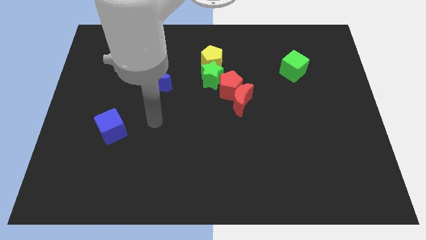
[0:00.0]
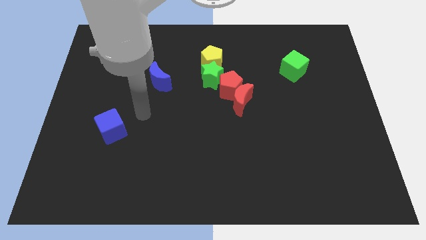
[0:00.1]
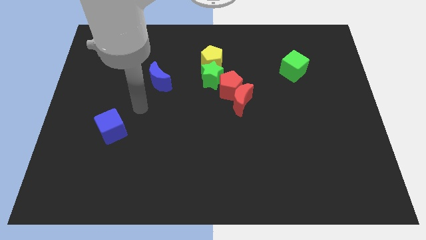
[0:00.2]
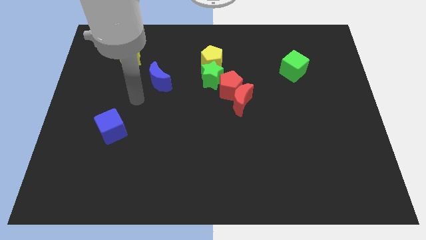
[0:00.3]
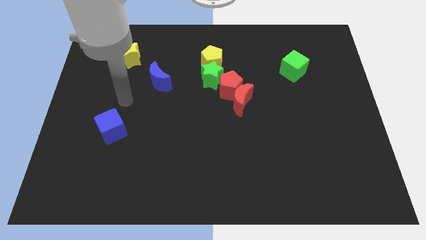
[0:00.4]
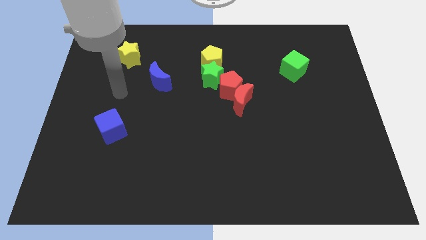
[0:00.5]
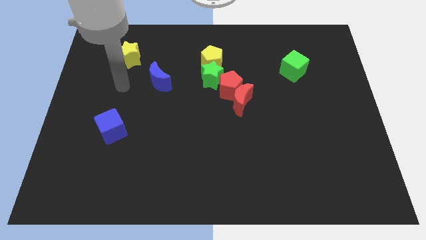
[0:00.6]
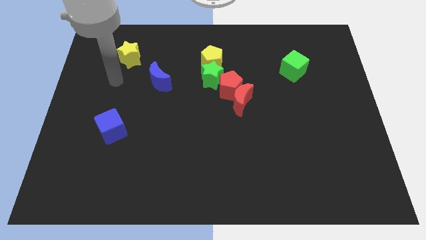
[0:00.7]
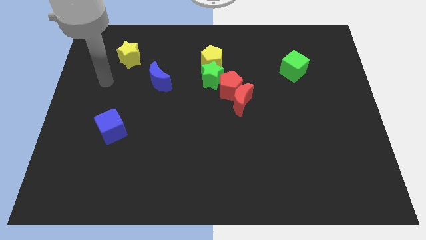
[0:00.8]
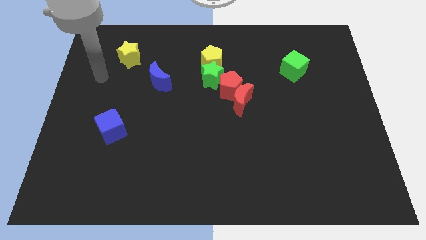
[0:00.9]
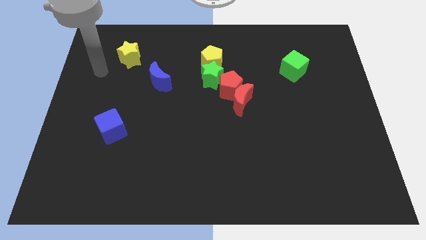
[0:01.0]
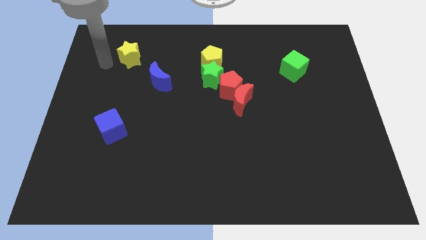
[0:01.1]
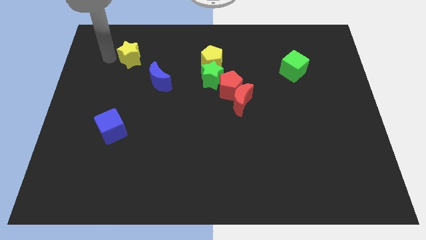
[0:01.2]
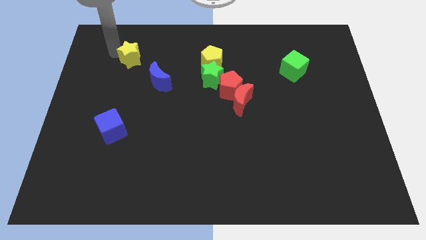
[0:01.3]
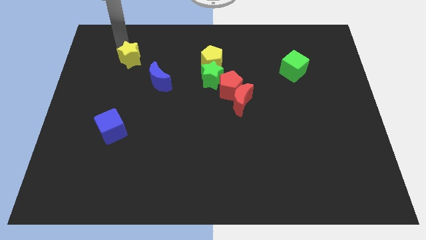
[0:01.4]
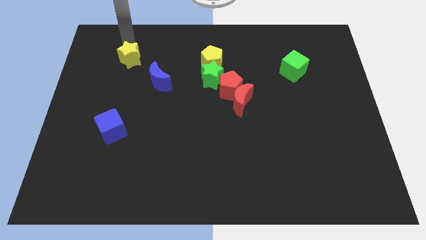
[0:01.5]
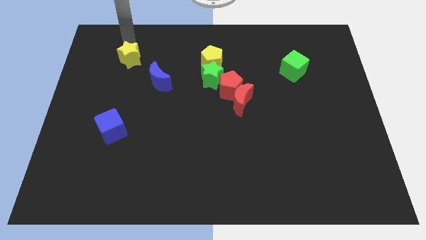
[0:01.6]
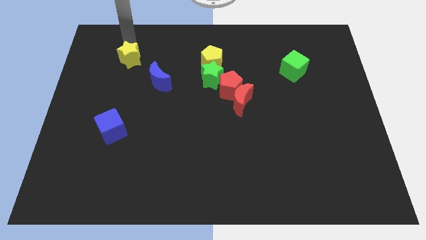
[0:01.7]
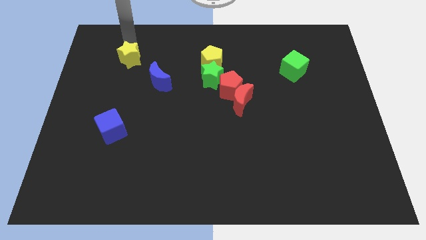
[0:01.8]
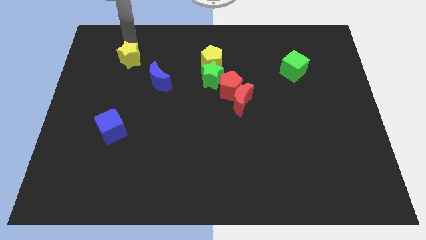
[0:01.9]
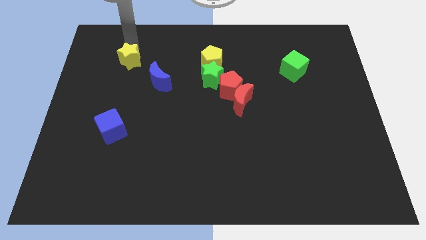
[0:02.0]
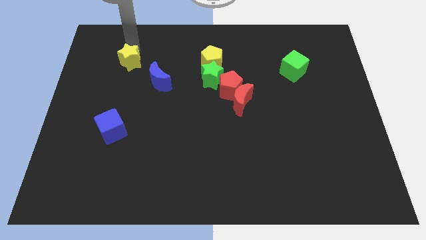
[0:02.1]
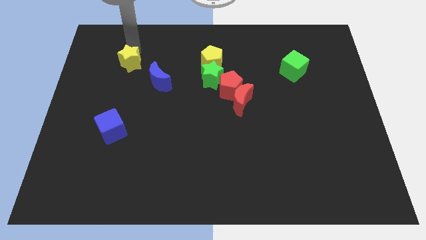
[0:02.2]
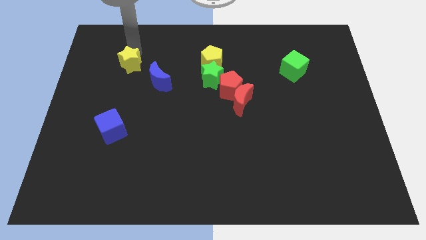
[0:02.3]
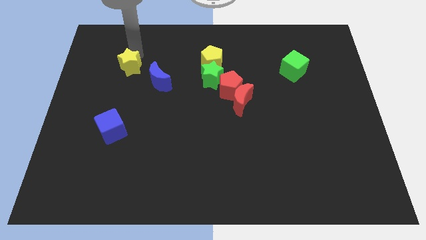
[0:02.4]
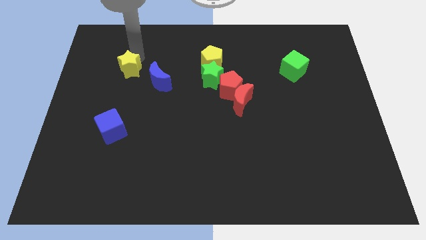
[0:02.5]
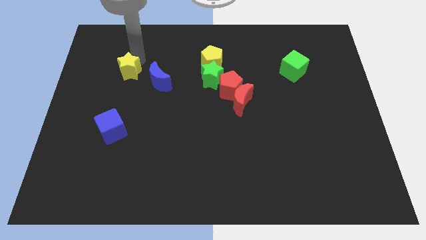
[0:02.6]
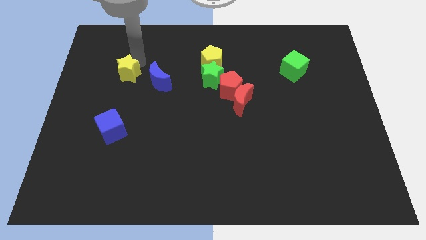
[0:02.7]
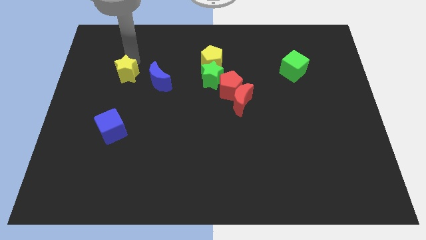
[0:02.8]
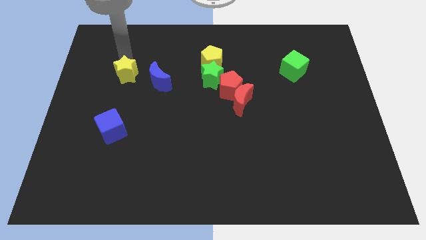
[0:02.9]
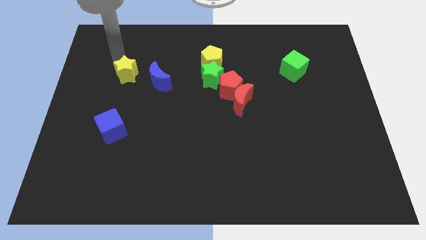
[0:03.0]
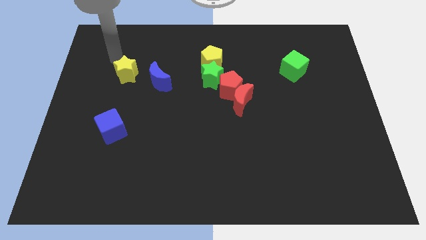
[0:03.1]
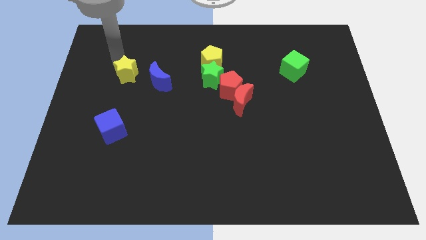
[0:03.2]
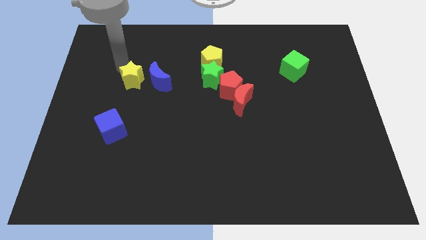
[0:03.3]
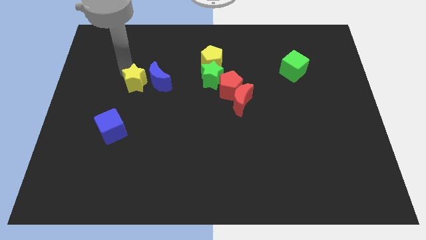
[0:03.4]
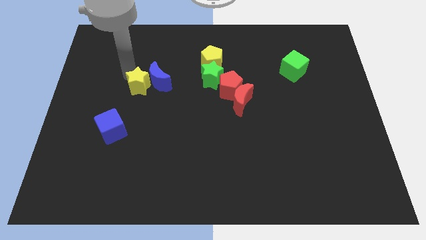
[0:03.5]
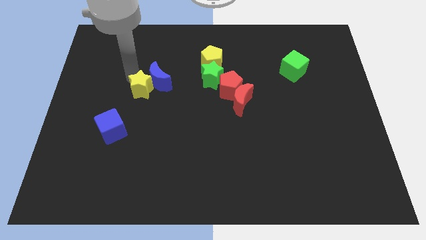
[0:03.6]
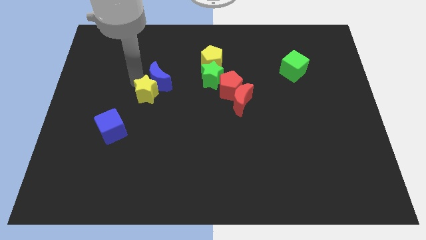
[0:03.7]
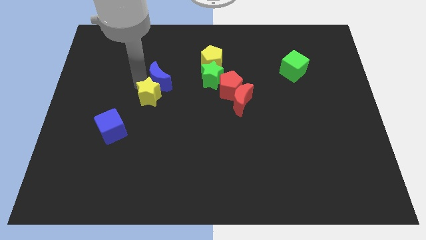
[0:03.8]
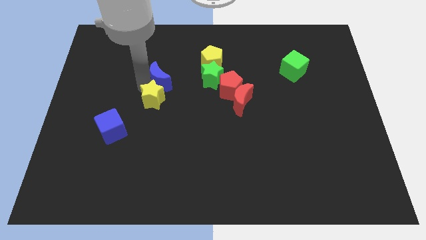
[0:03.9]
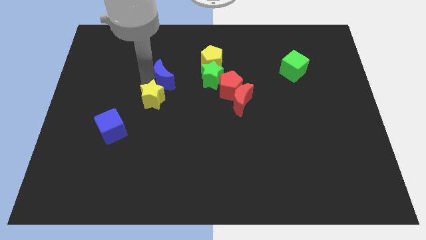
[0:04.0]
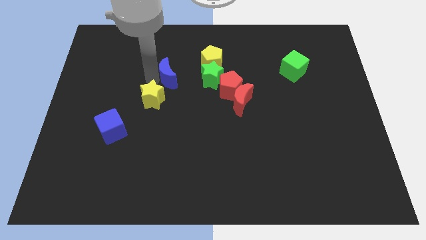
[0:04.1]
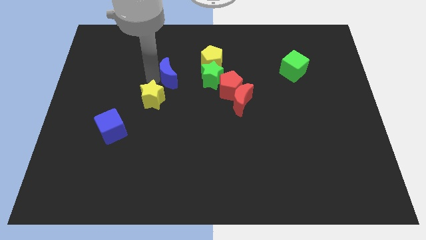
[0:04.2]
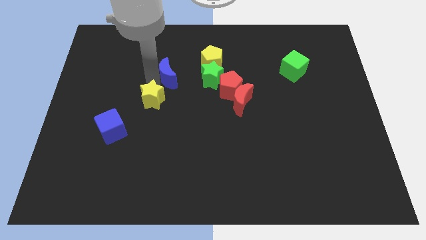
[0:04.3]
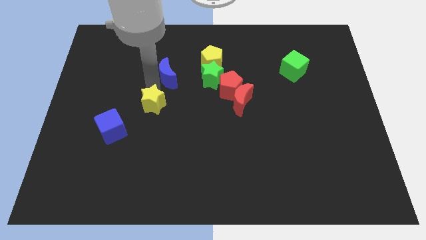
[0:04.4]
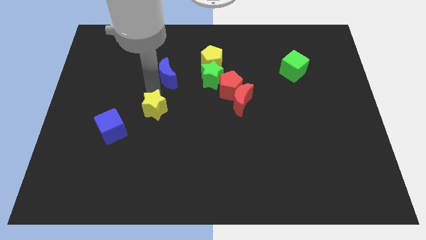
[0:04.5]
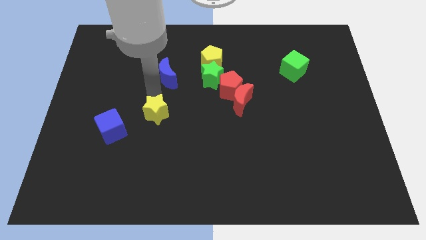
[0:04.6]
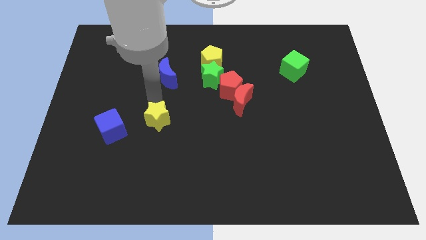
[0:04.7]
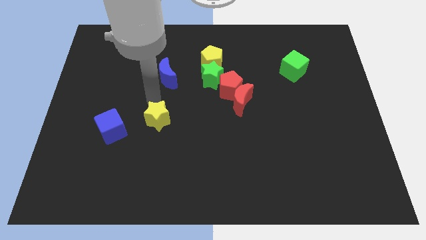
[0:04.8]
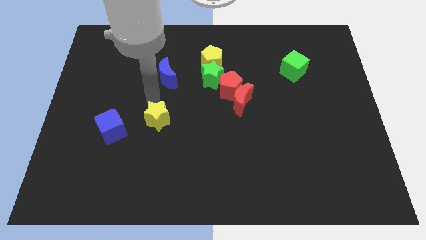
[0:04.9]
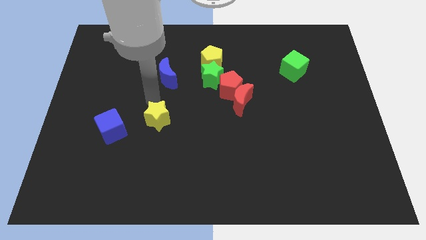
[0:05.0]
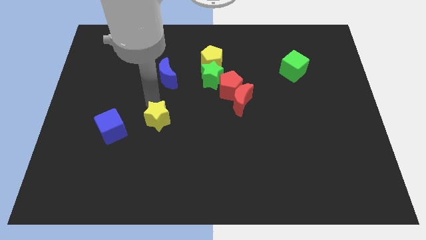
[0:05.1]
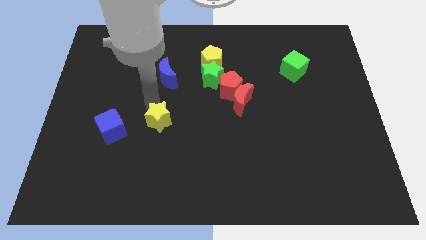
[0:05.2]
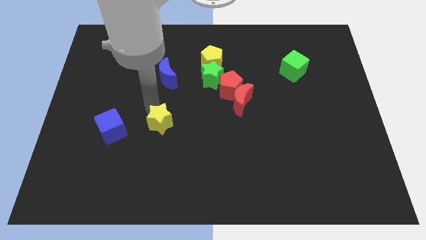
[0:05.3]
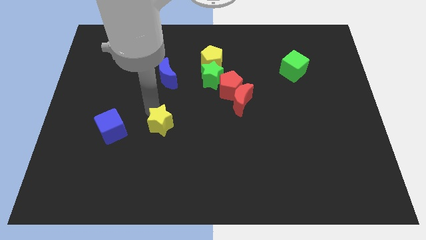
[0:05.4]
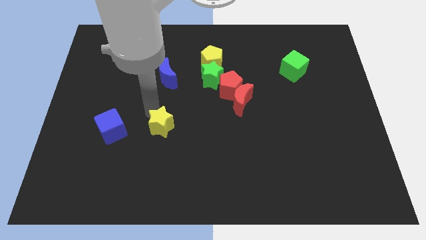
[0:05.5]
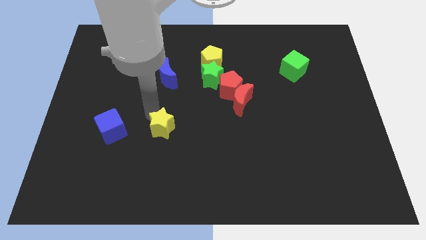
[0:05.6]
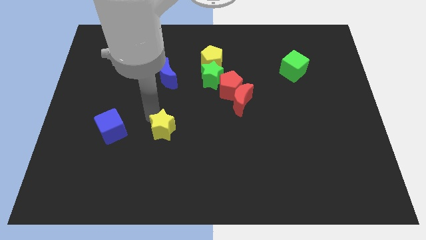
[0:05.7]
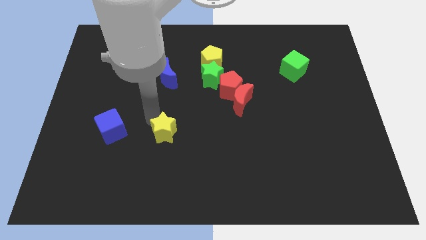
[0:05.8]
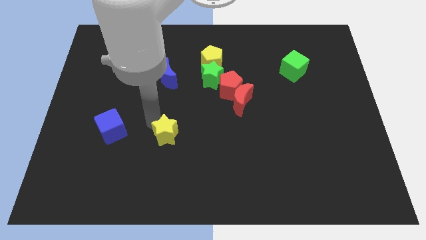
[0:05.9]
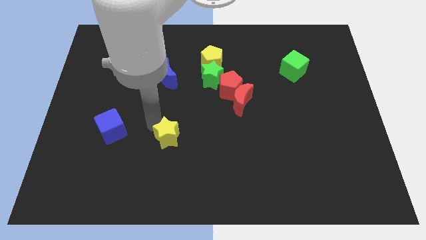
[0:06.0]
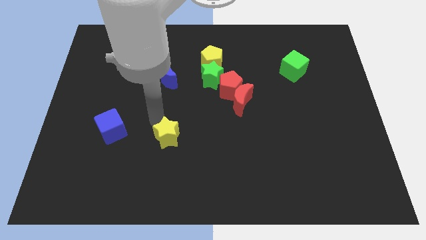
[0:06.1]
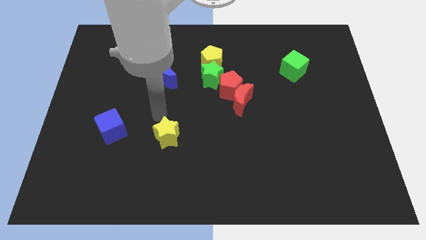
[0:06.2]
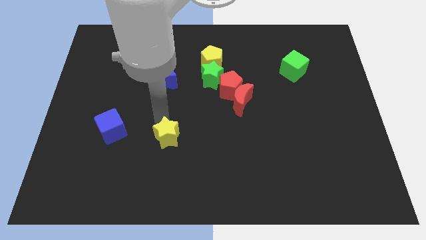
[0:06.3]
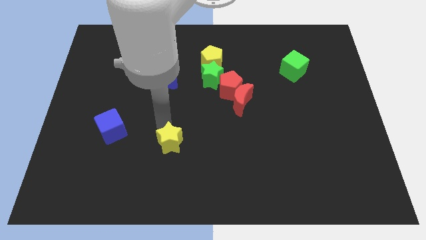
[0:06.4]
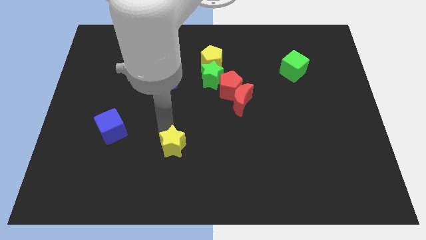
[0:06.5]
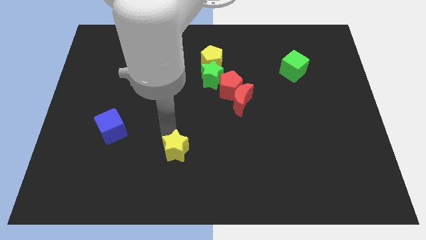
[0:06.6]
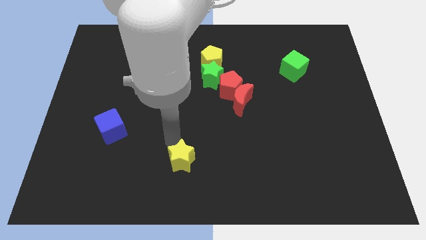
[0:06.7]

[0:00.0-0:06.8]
slide the yellow star to the bottom side
